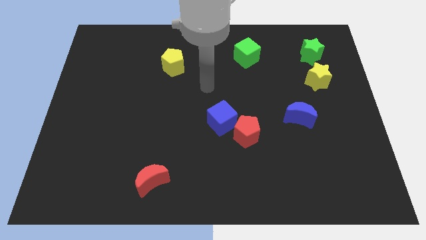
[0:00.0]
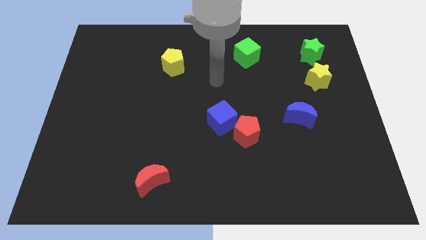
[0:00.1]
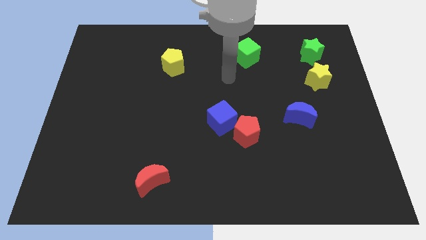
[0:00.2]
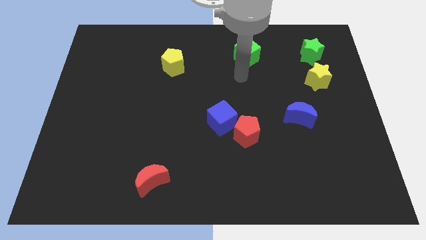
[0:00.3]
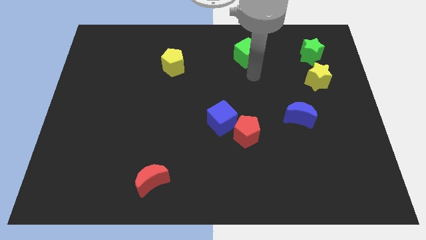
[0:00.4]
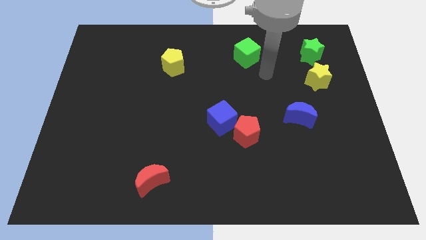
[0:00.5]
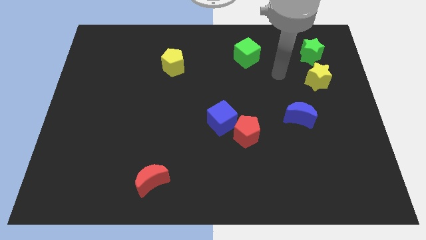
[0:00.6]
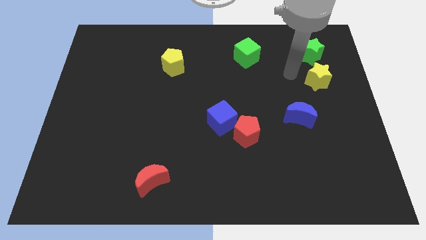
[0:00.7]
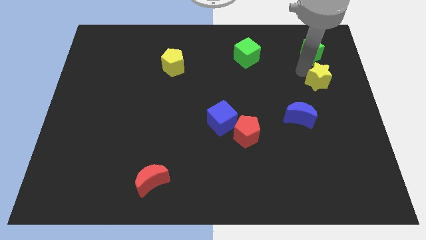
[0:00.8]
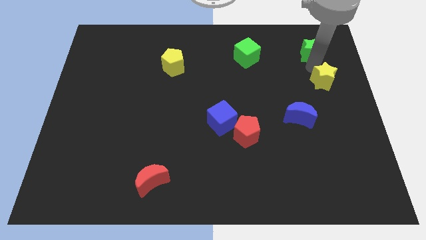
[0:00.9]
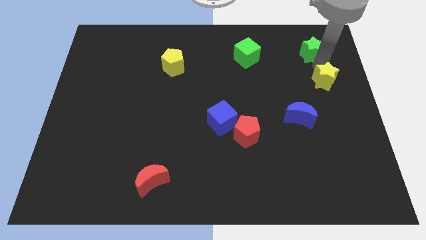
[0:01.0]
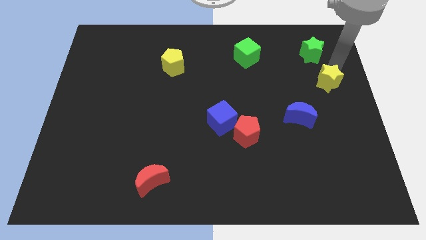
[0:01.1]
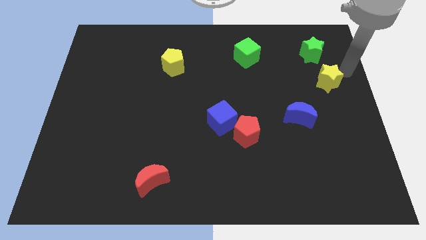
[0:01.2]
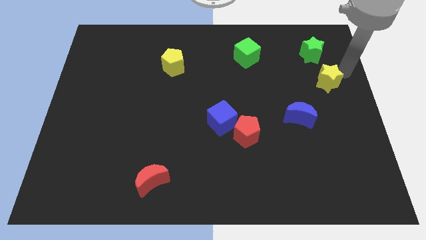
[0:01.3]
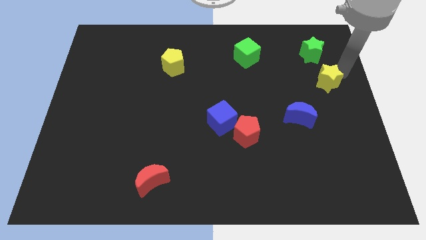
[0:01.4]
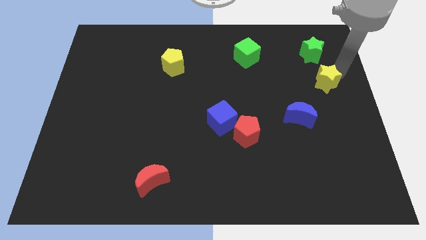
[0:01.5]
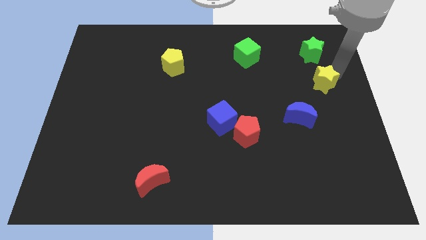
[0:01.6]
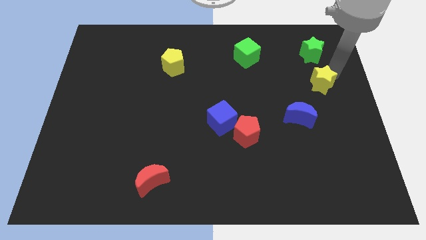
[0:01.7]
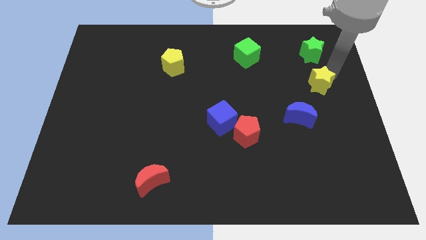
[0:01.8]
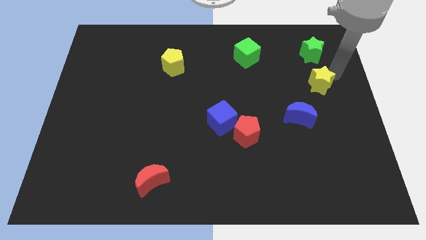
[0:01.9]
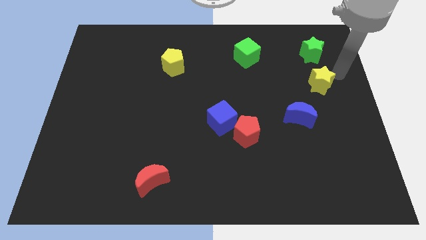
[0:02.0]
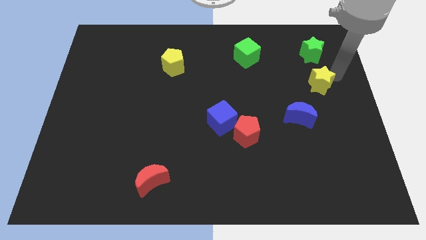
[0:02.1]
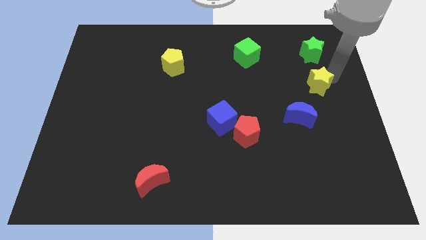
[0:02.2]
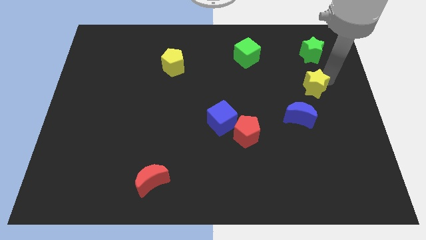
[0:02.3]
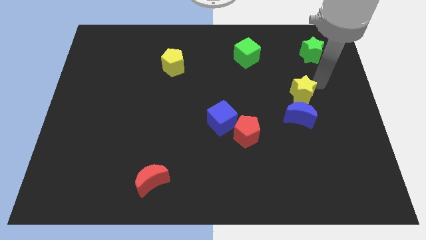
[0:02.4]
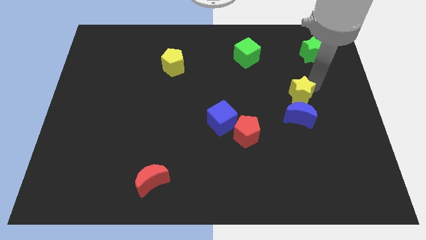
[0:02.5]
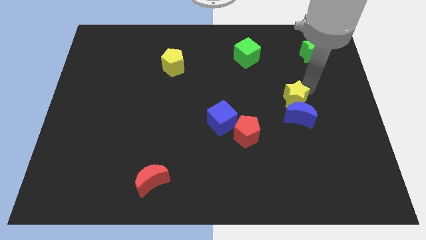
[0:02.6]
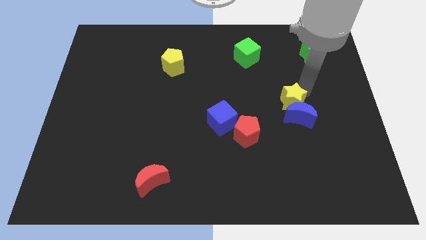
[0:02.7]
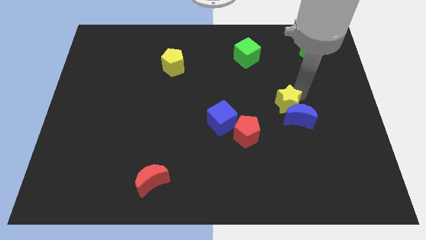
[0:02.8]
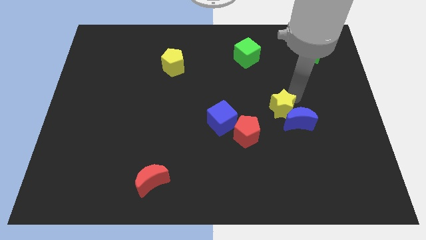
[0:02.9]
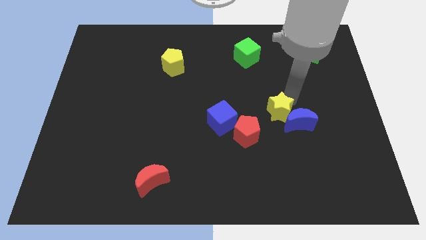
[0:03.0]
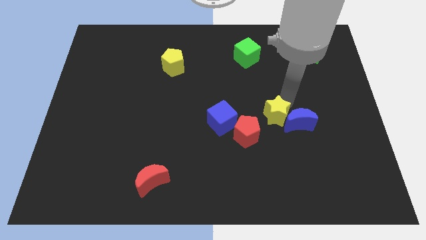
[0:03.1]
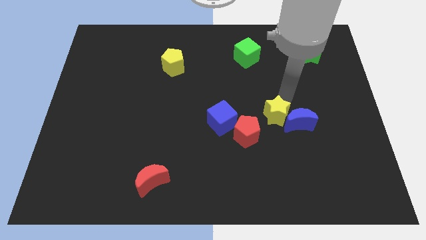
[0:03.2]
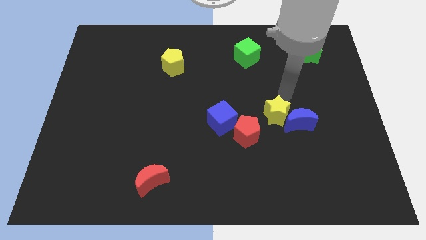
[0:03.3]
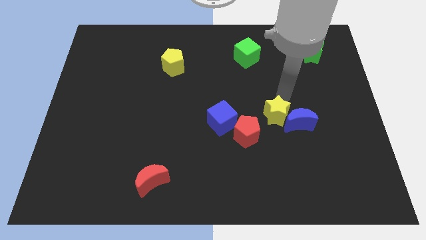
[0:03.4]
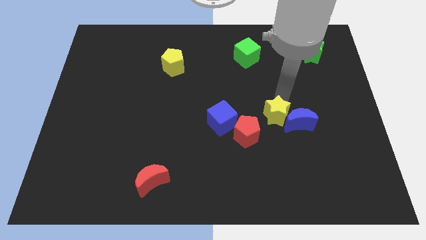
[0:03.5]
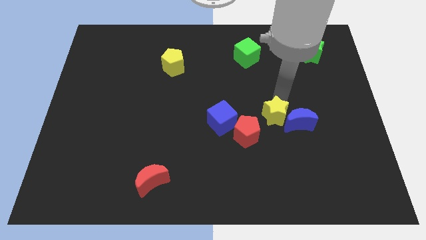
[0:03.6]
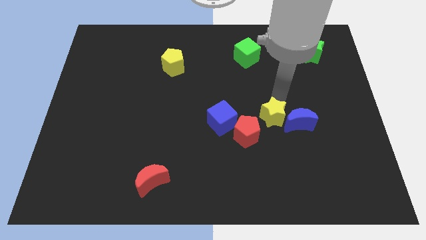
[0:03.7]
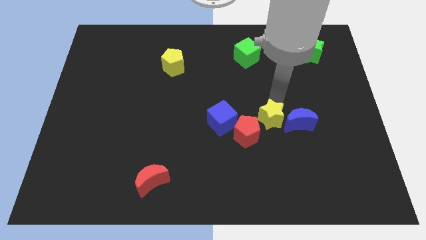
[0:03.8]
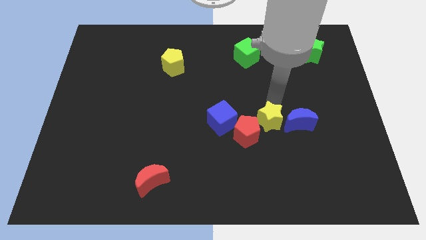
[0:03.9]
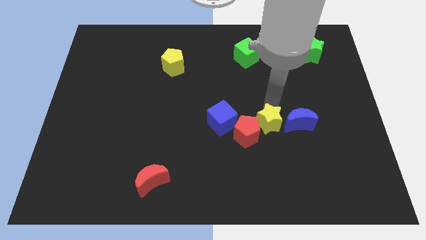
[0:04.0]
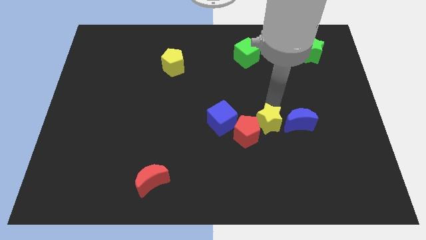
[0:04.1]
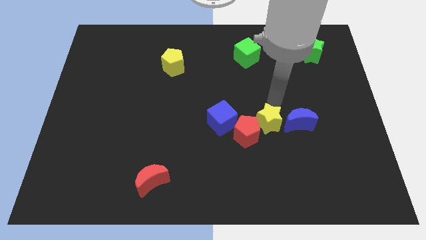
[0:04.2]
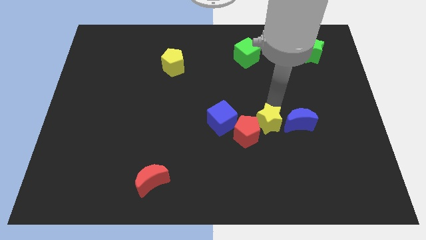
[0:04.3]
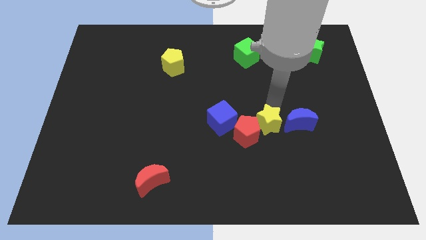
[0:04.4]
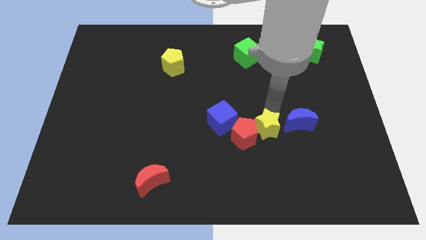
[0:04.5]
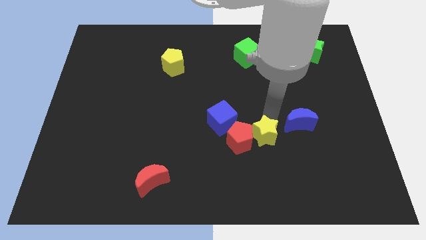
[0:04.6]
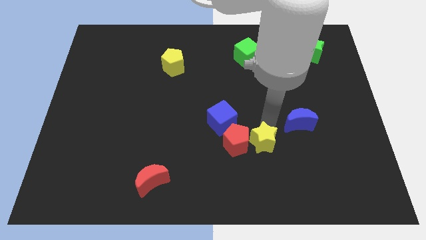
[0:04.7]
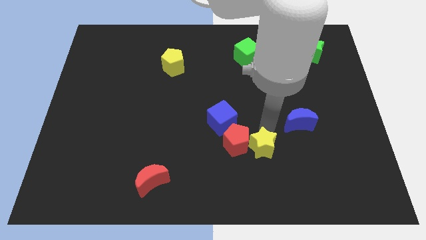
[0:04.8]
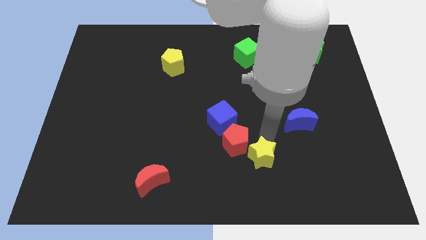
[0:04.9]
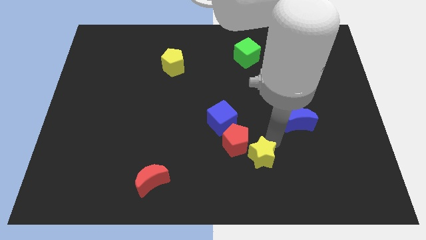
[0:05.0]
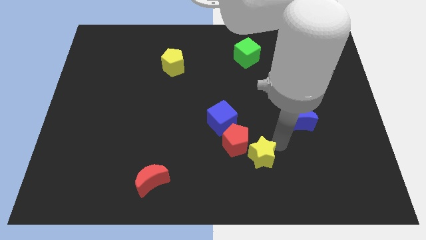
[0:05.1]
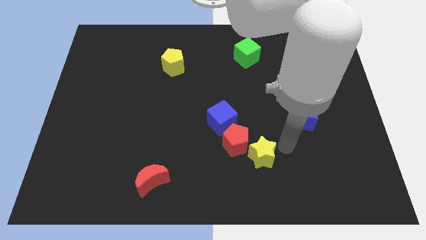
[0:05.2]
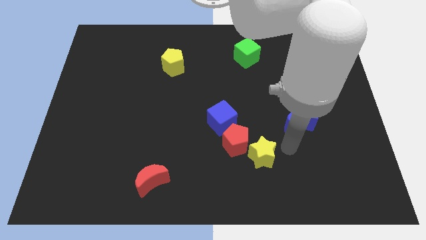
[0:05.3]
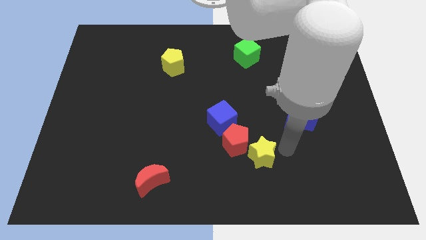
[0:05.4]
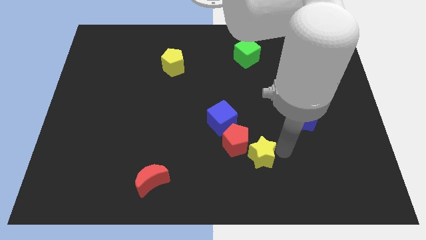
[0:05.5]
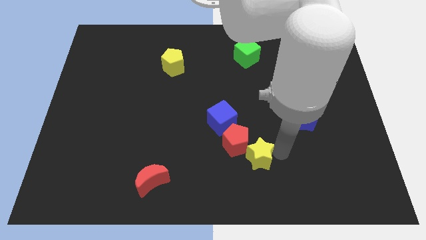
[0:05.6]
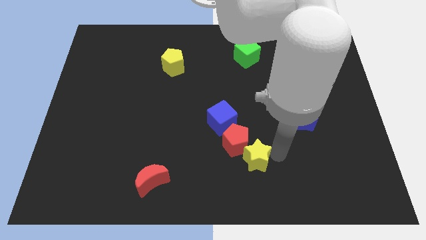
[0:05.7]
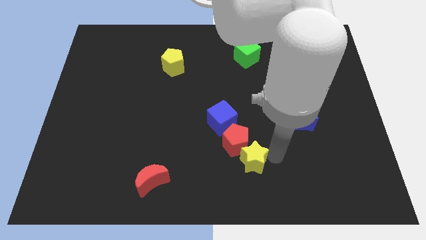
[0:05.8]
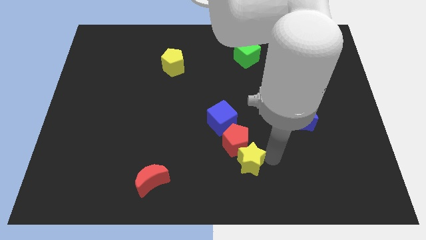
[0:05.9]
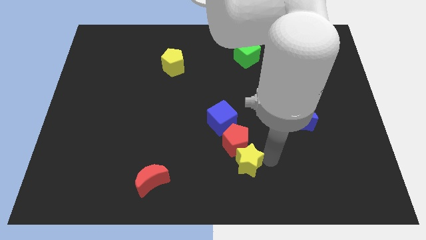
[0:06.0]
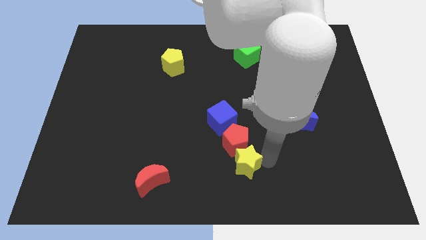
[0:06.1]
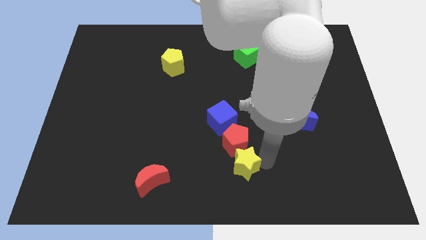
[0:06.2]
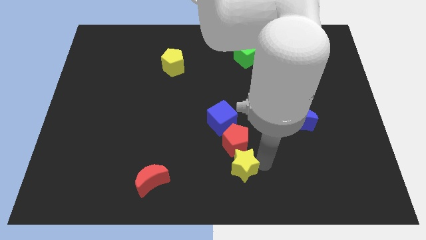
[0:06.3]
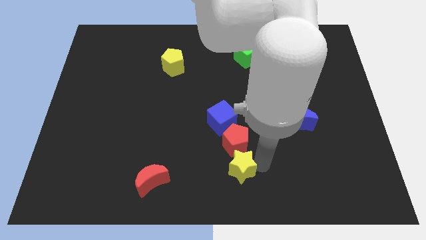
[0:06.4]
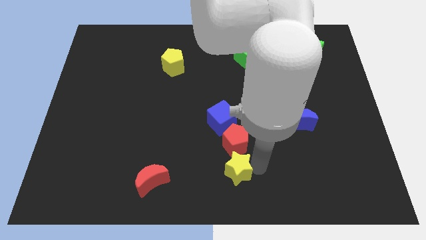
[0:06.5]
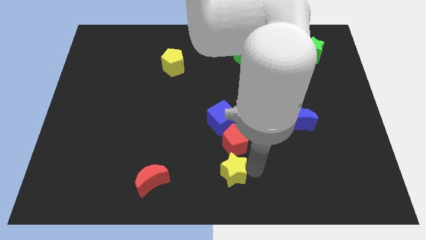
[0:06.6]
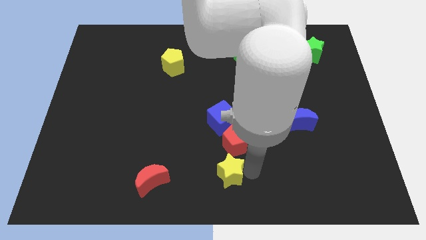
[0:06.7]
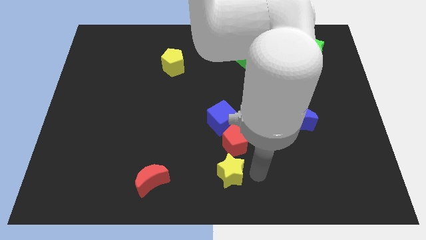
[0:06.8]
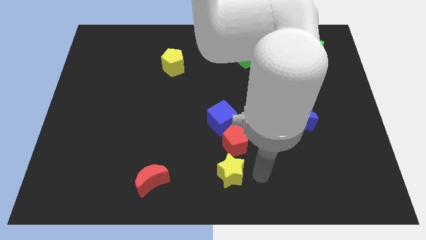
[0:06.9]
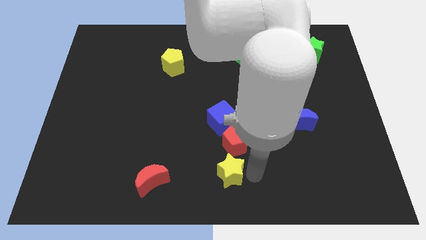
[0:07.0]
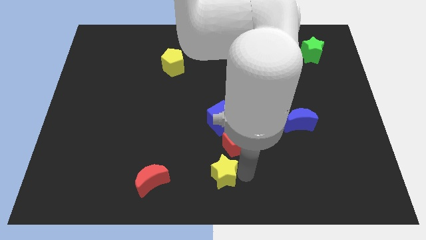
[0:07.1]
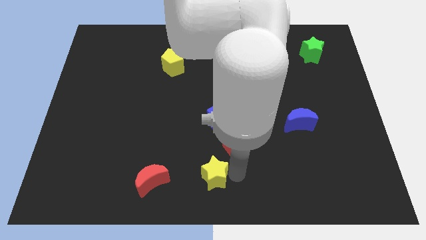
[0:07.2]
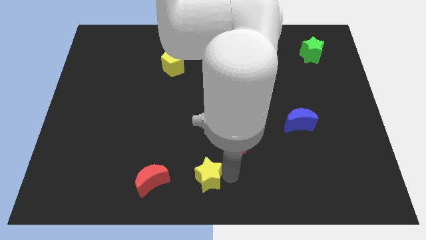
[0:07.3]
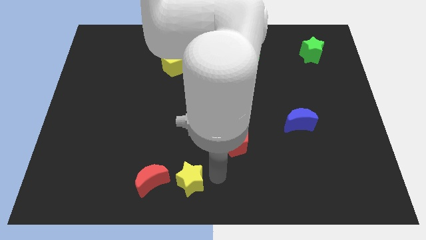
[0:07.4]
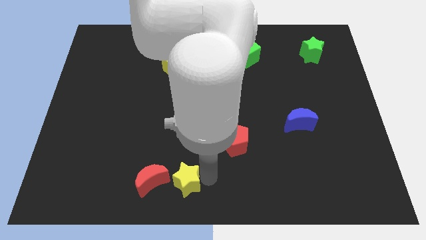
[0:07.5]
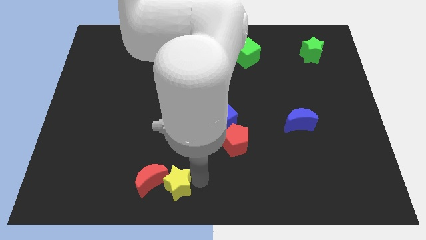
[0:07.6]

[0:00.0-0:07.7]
slide the yellow star towards the red moon
